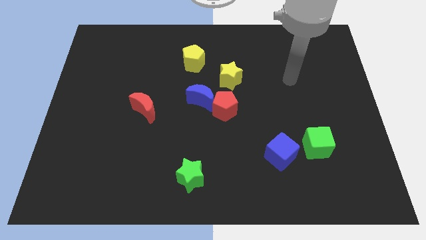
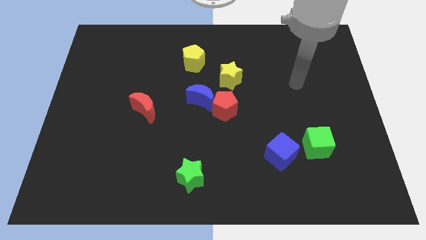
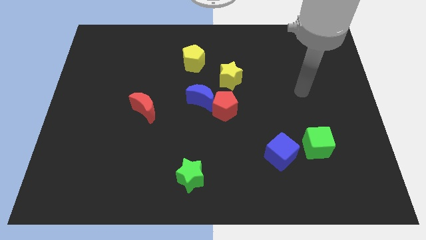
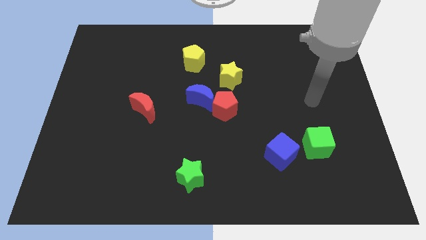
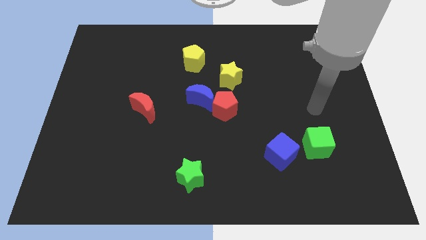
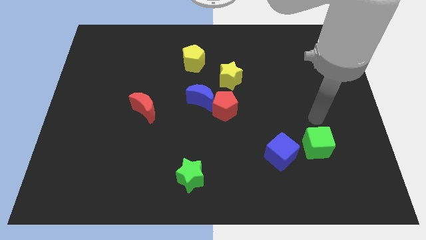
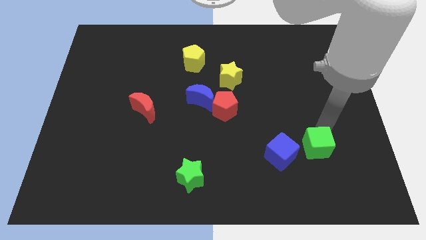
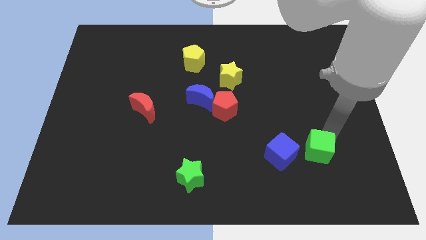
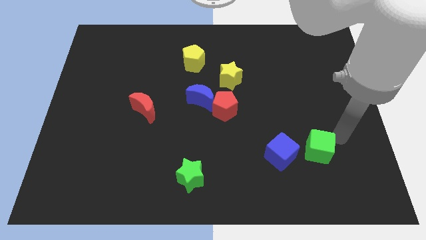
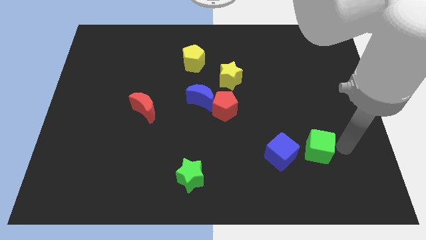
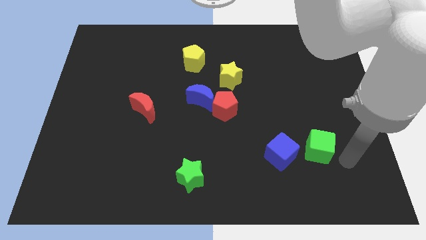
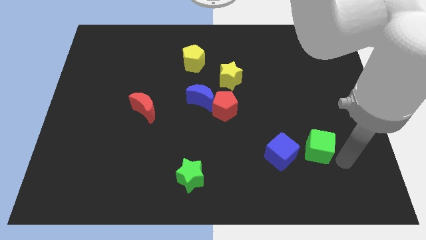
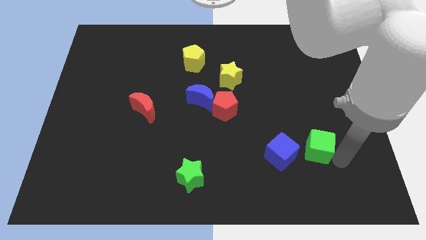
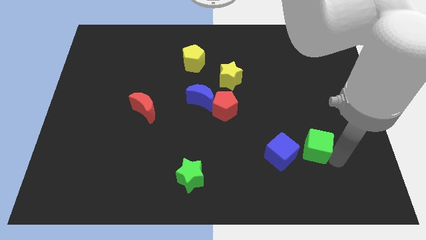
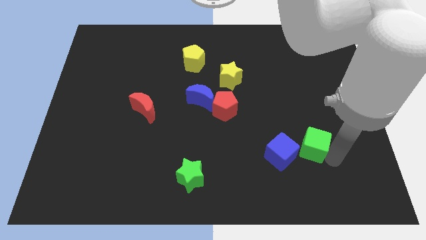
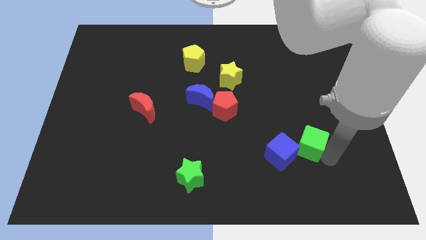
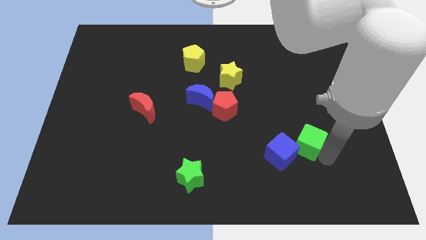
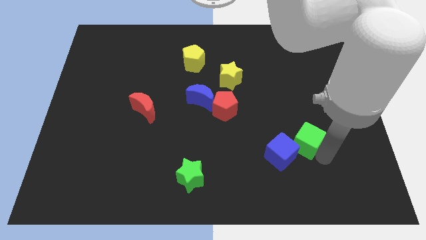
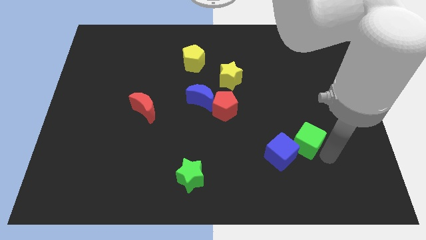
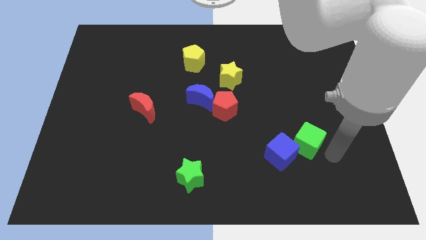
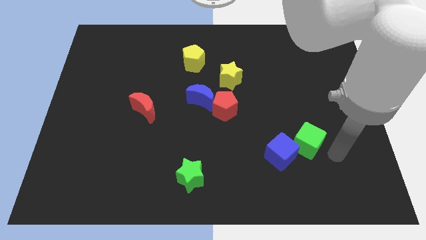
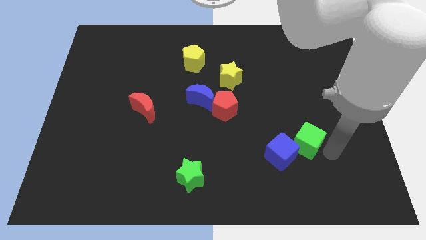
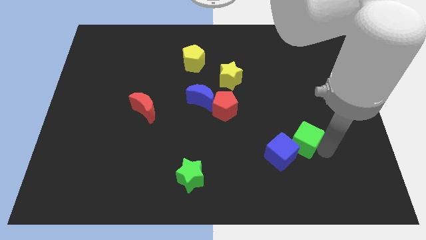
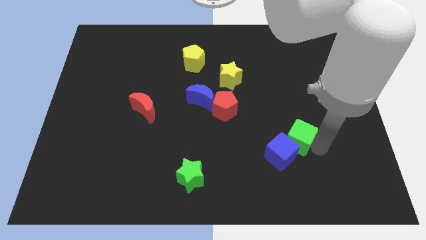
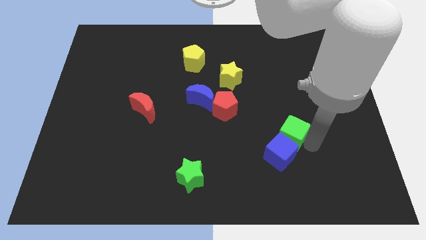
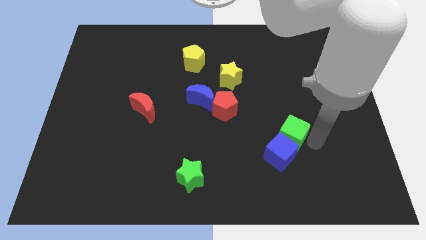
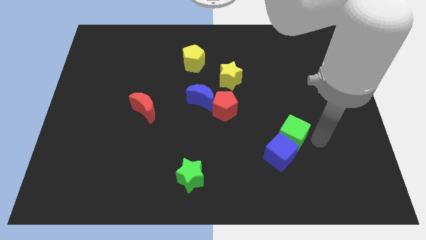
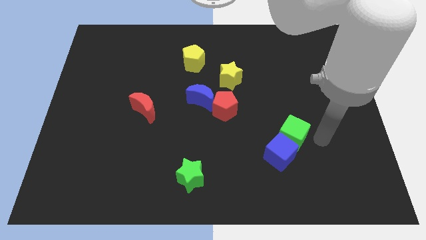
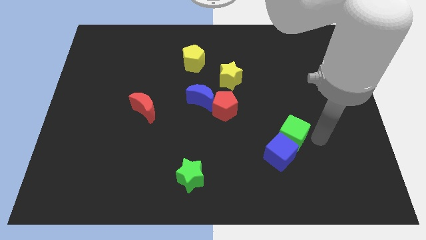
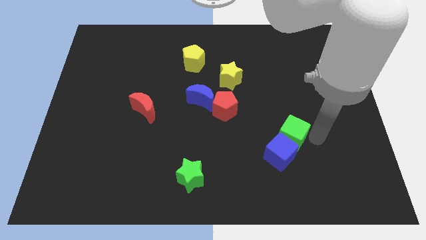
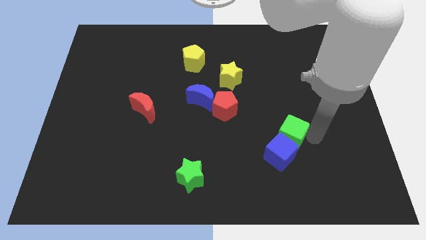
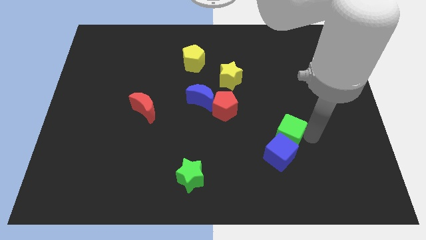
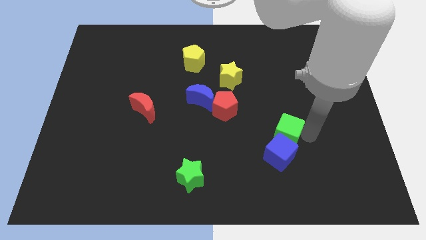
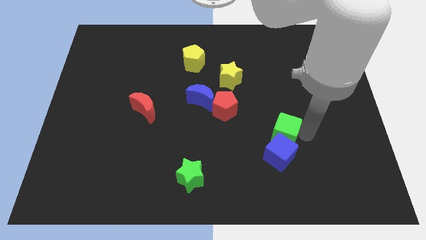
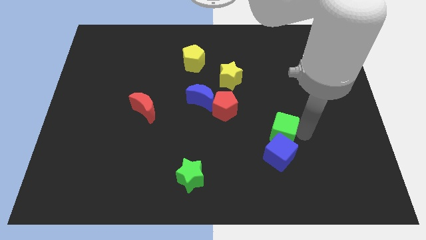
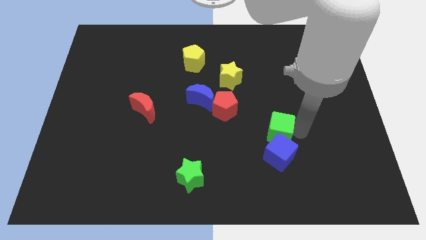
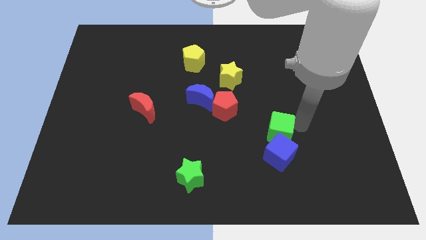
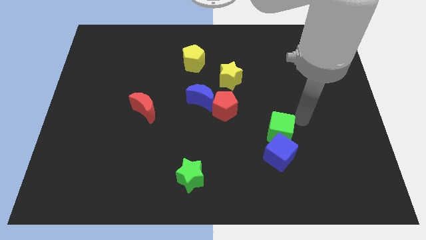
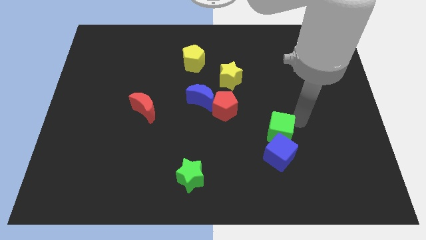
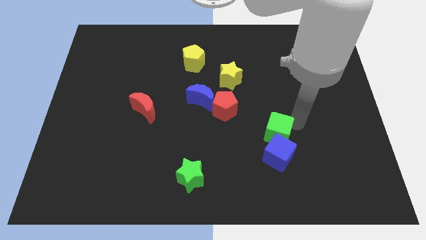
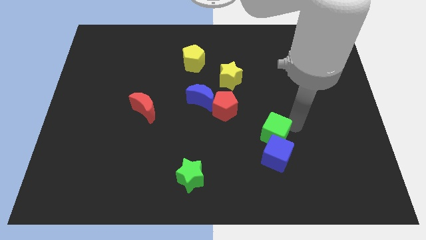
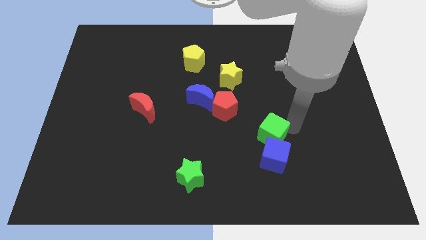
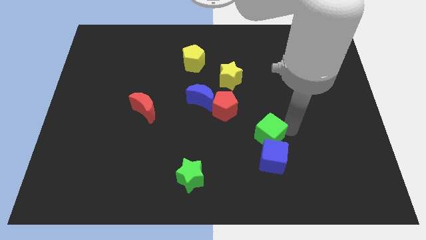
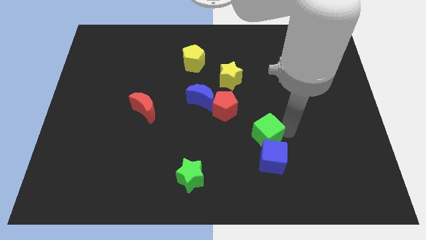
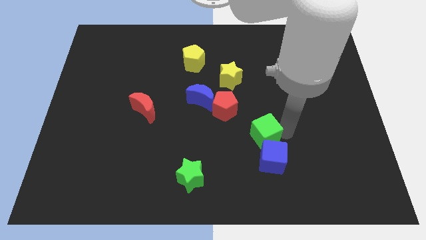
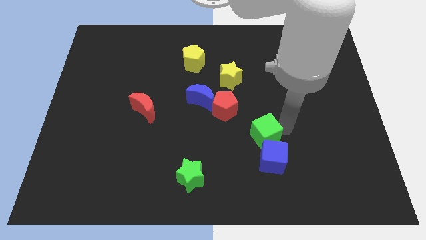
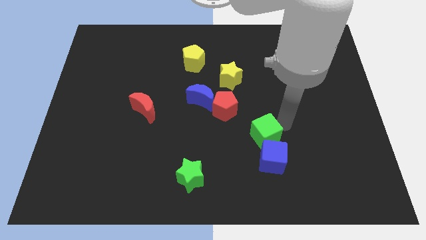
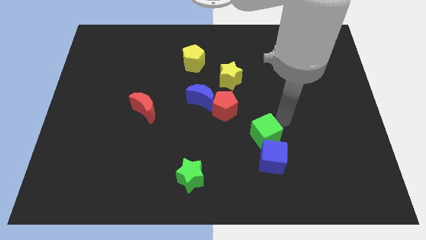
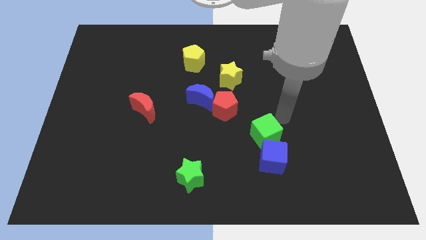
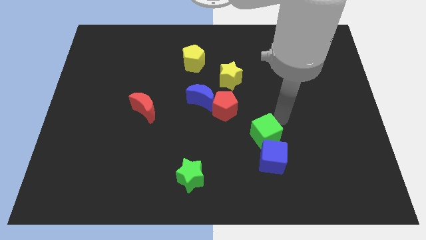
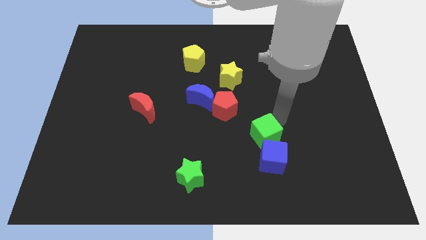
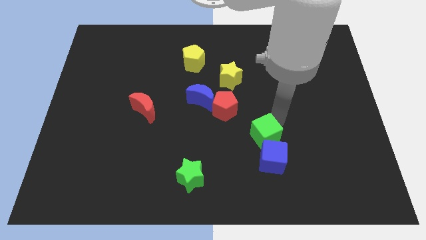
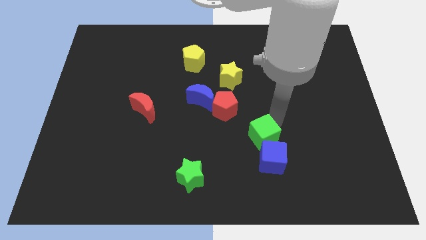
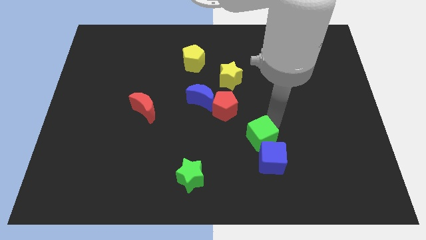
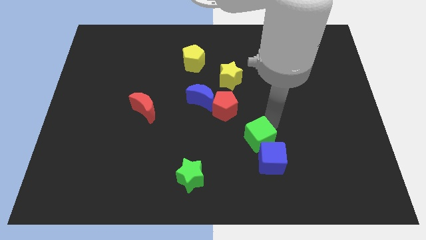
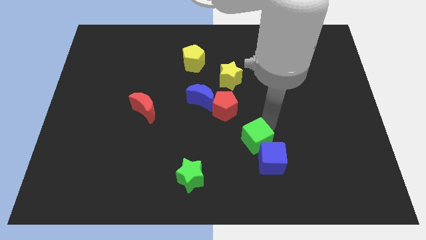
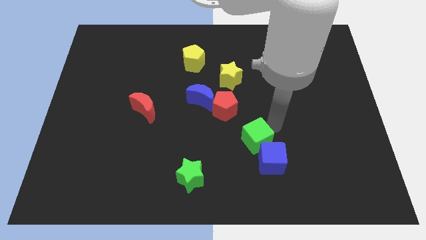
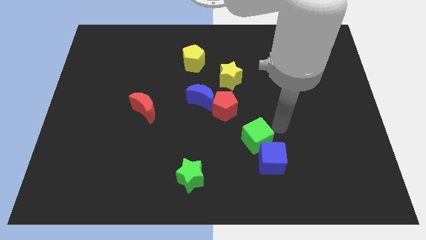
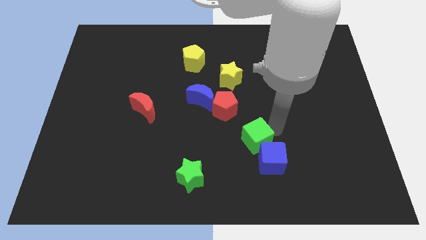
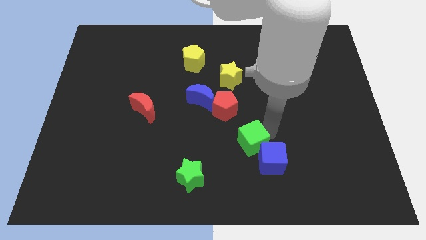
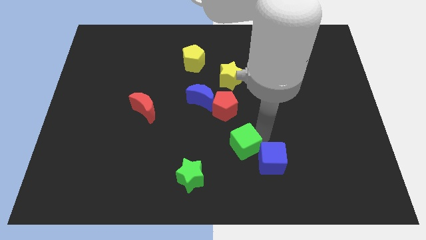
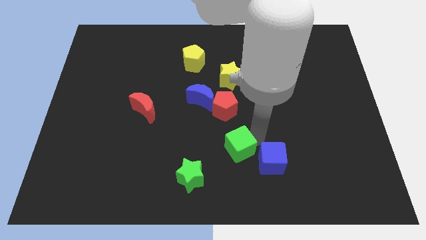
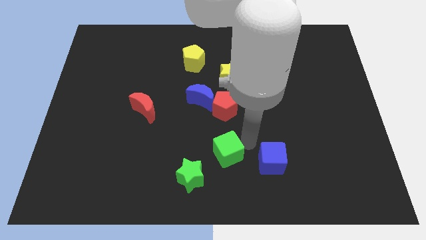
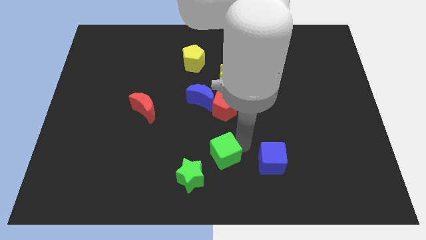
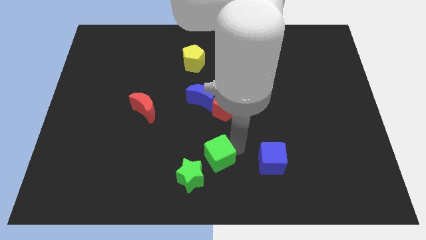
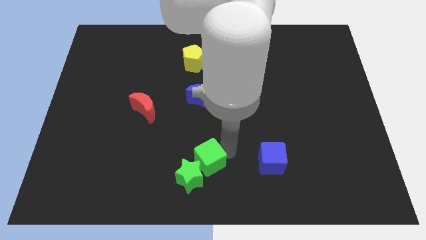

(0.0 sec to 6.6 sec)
push the green cube next to the green star

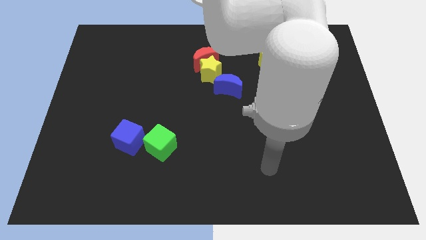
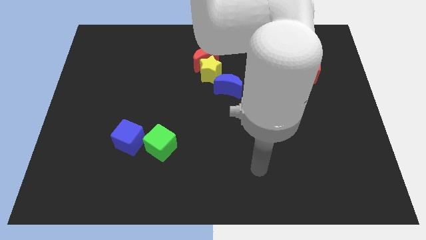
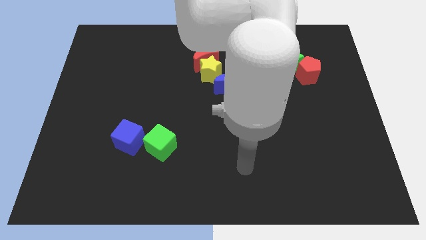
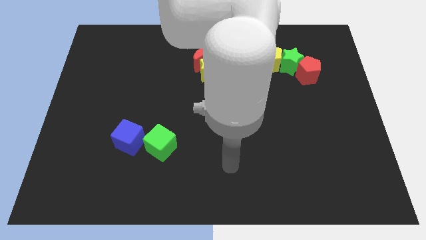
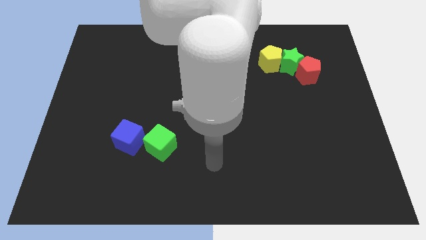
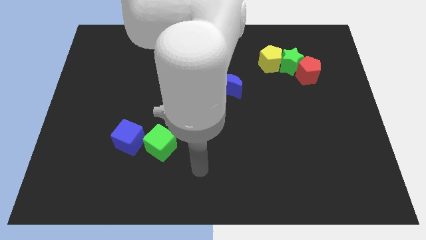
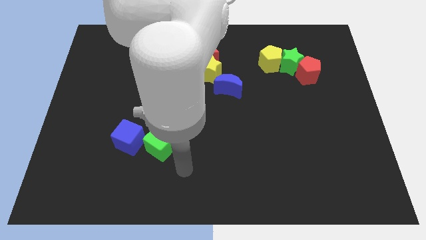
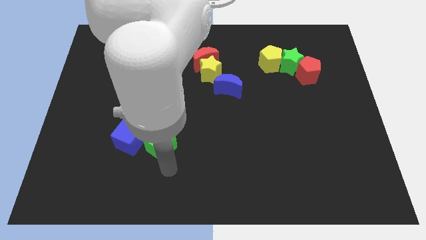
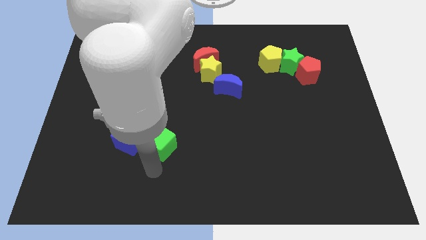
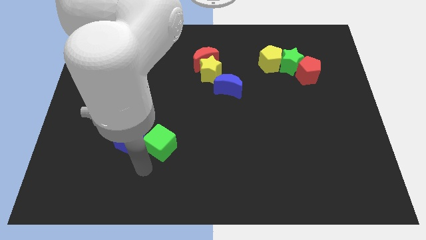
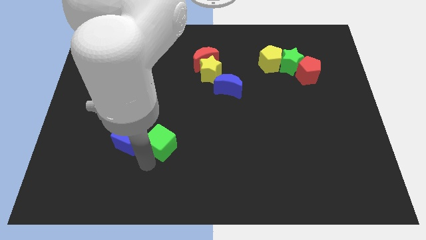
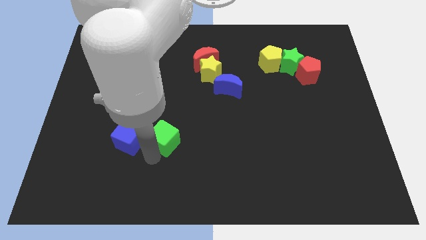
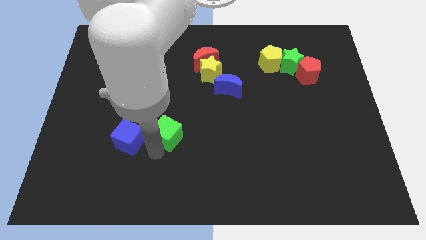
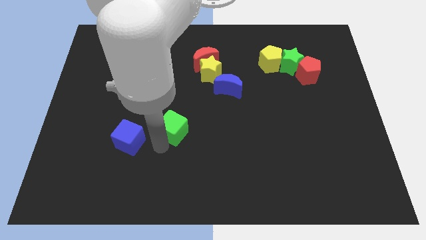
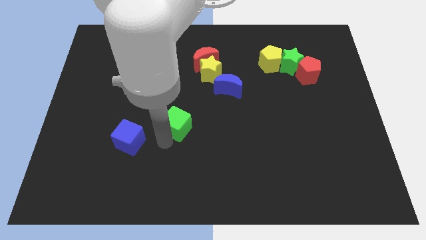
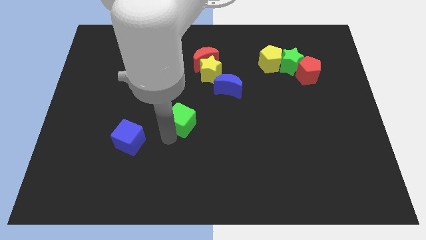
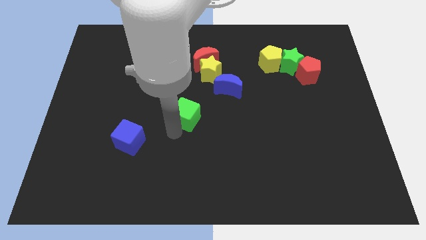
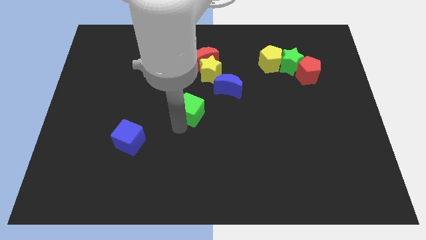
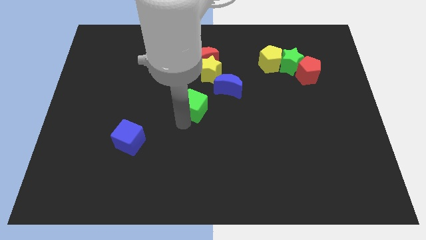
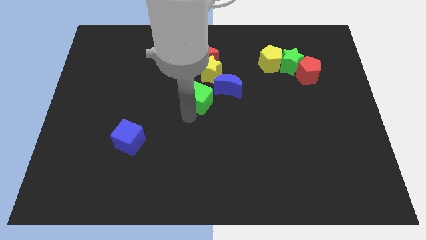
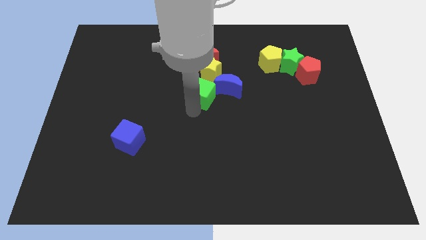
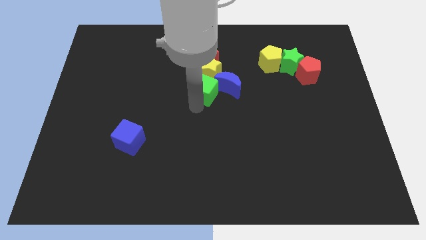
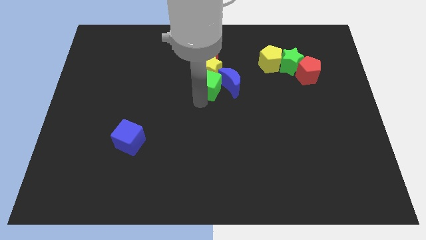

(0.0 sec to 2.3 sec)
move the green cube towards the yellow star
